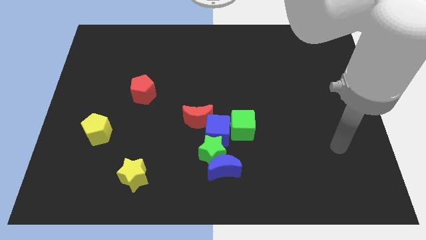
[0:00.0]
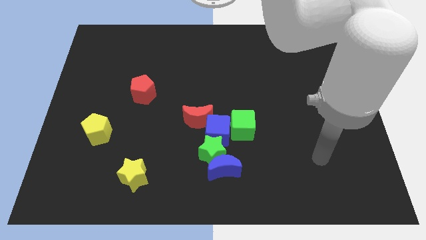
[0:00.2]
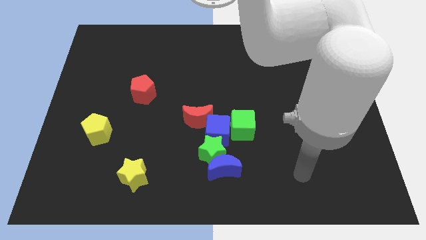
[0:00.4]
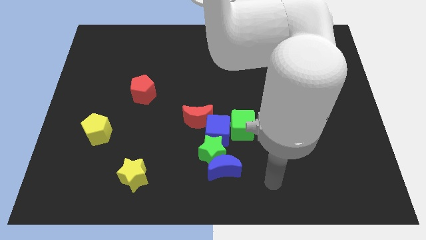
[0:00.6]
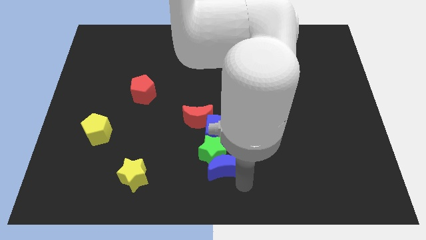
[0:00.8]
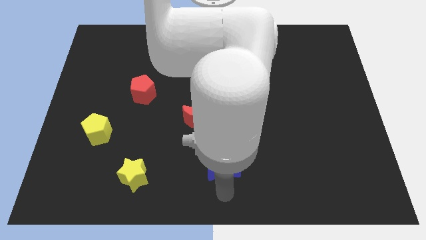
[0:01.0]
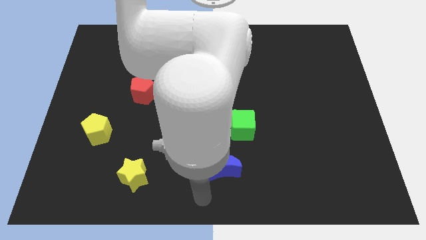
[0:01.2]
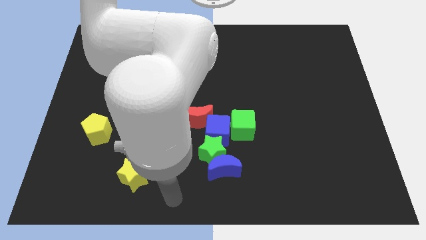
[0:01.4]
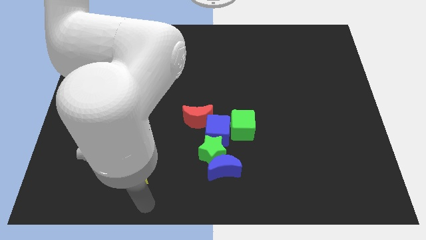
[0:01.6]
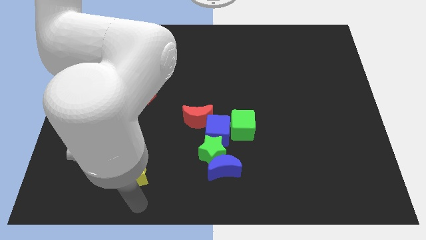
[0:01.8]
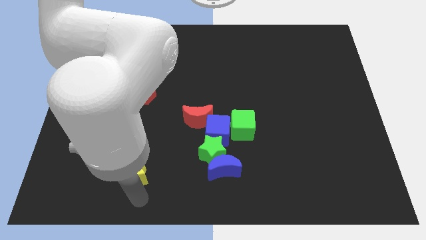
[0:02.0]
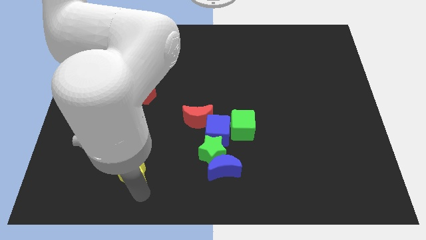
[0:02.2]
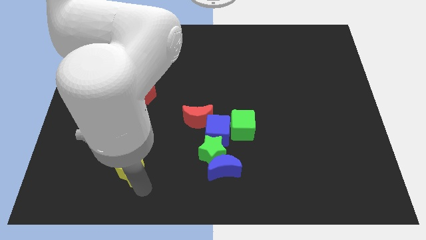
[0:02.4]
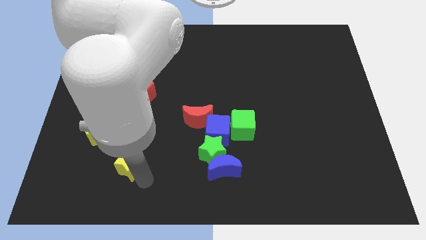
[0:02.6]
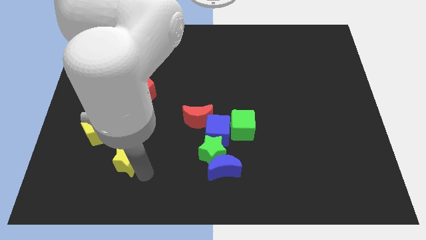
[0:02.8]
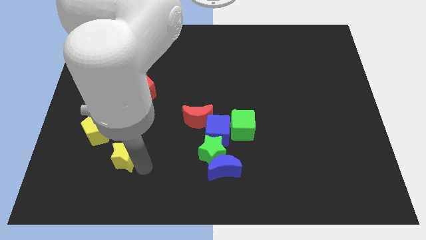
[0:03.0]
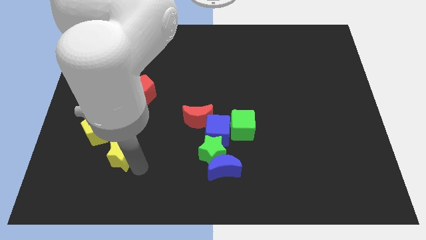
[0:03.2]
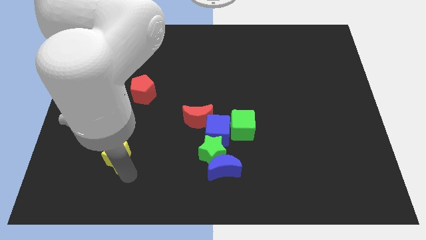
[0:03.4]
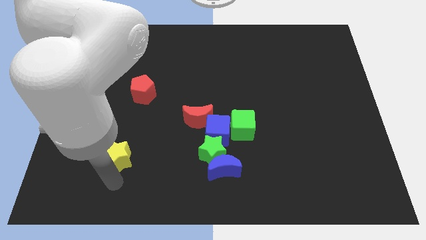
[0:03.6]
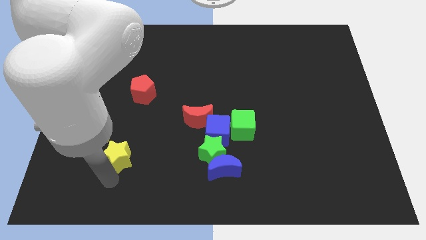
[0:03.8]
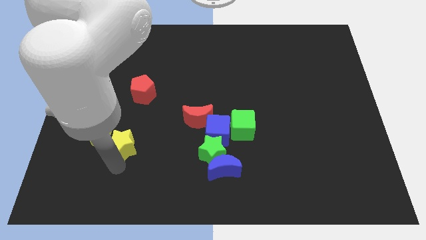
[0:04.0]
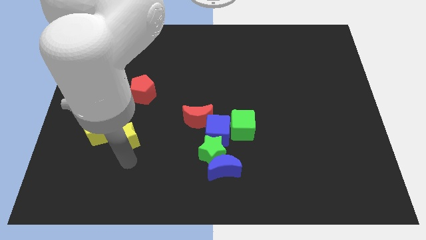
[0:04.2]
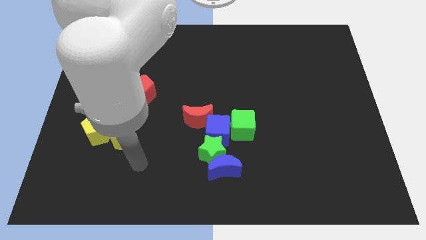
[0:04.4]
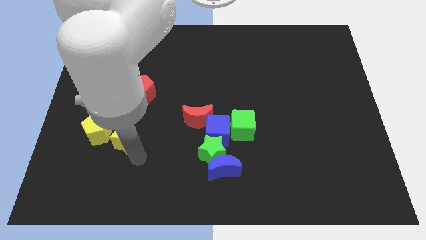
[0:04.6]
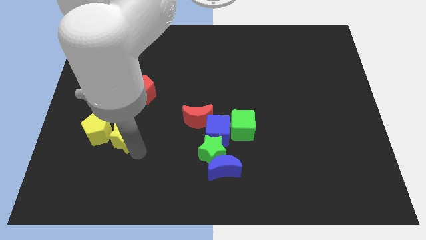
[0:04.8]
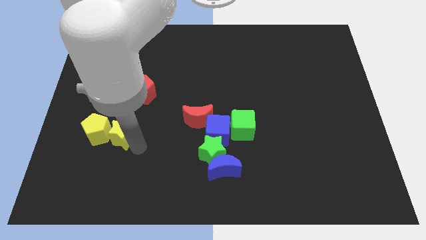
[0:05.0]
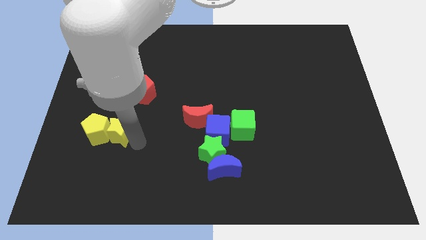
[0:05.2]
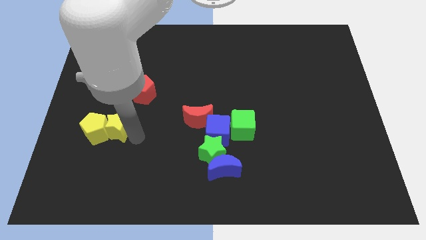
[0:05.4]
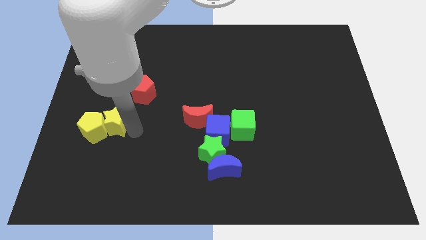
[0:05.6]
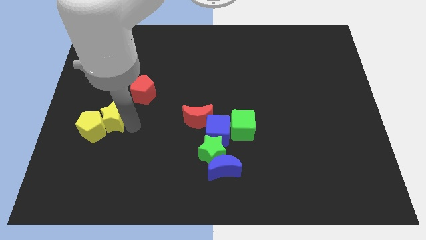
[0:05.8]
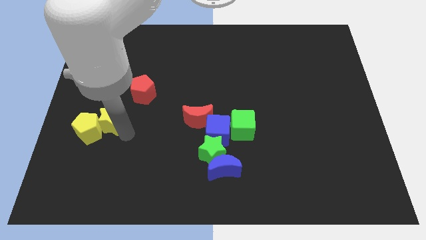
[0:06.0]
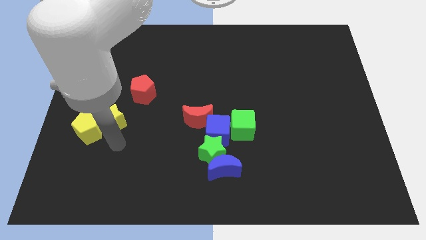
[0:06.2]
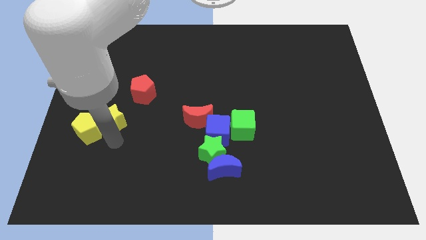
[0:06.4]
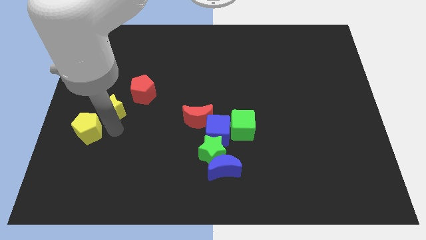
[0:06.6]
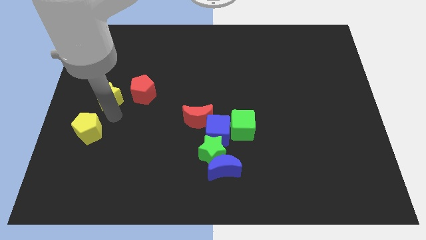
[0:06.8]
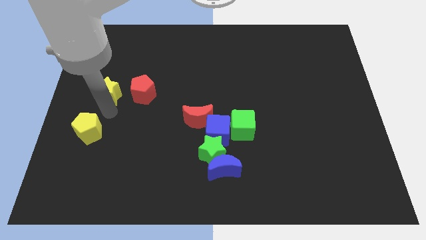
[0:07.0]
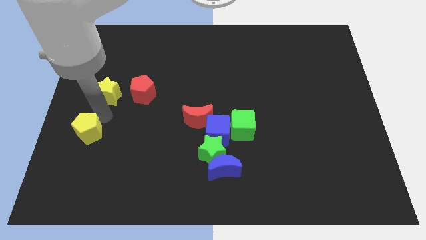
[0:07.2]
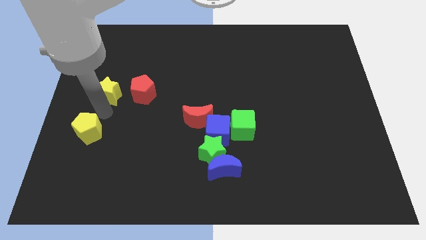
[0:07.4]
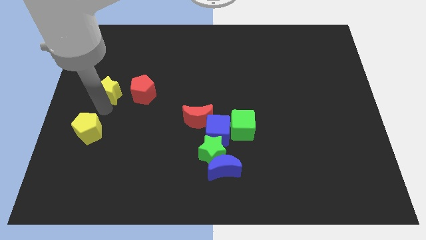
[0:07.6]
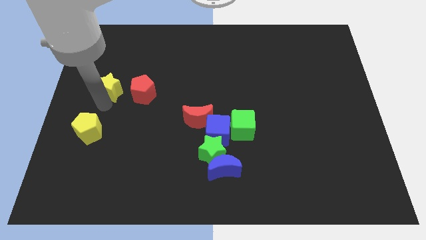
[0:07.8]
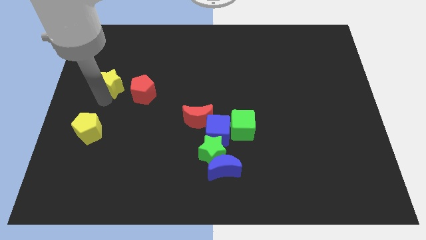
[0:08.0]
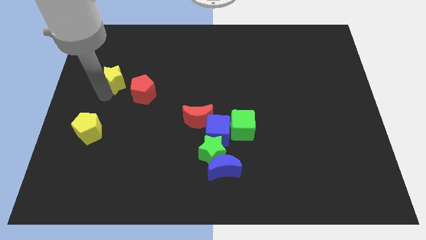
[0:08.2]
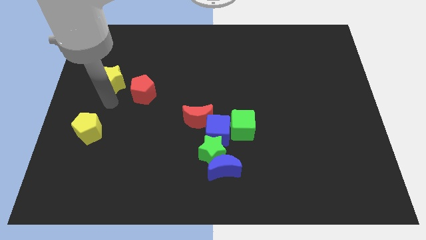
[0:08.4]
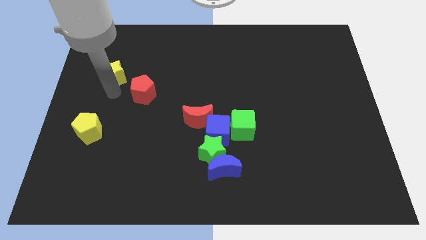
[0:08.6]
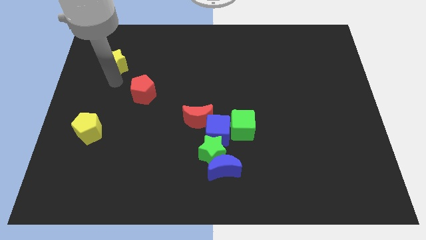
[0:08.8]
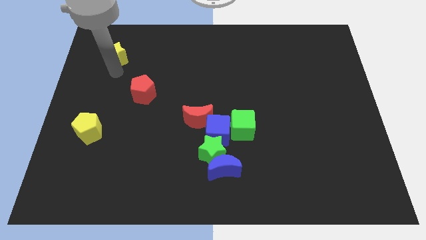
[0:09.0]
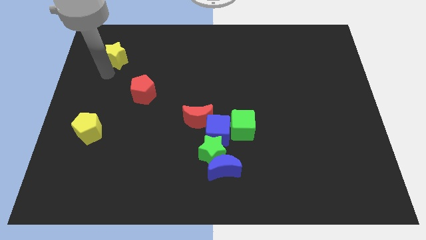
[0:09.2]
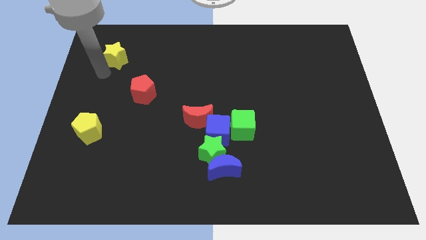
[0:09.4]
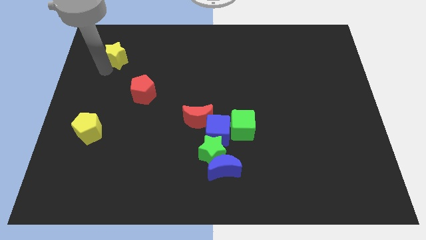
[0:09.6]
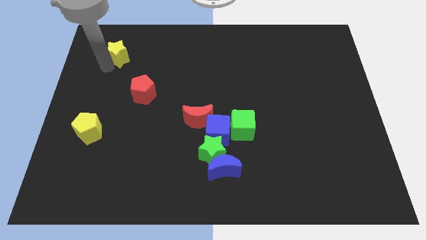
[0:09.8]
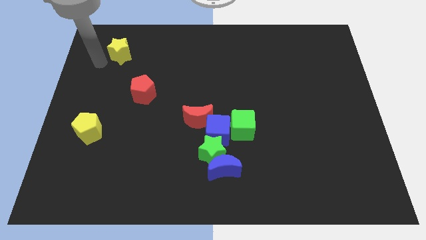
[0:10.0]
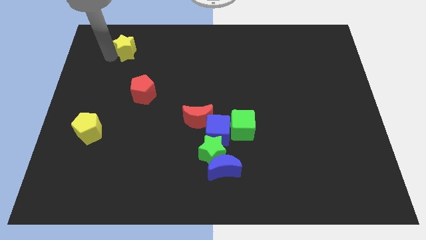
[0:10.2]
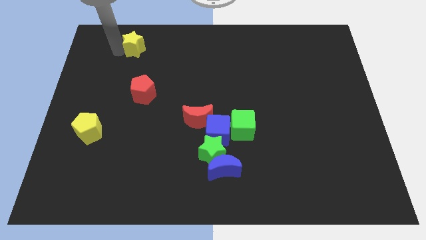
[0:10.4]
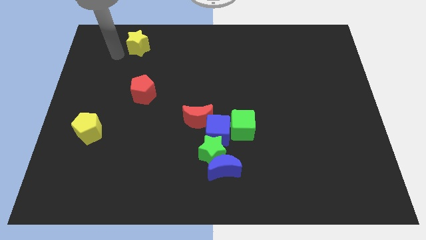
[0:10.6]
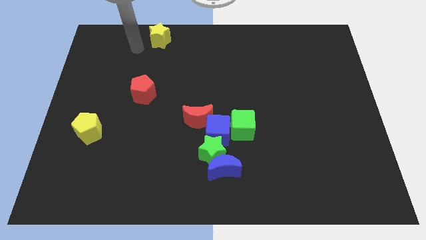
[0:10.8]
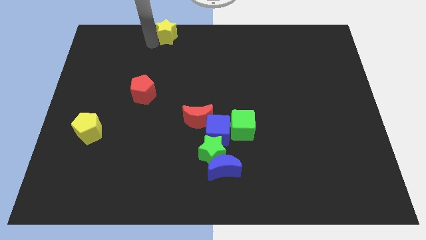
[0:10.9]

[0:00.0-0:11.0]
put the yellow star to the towards your base

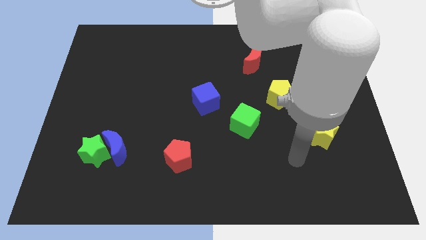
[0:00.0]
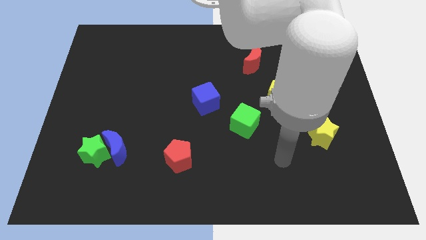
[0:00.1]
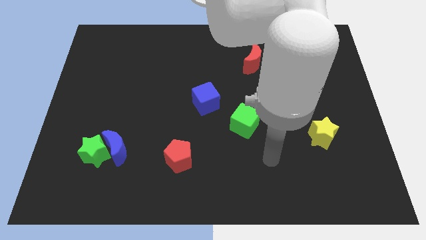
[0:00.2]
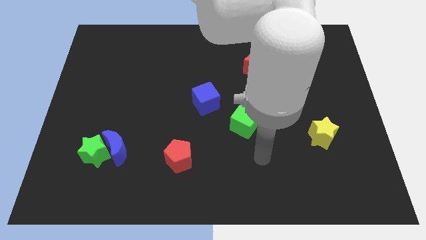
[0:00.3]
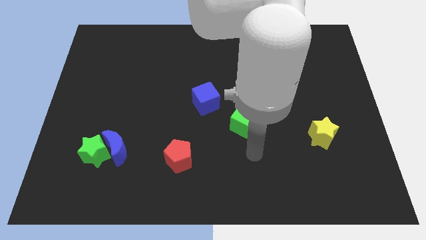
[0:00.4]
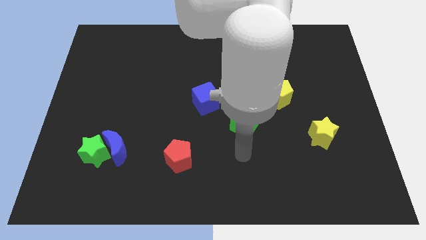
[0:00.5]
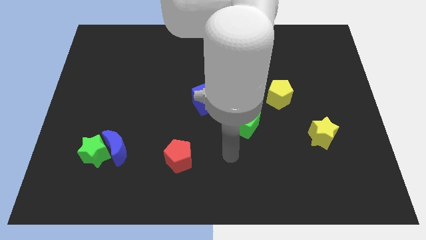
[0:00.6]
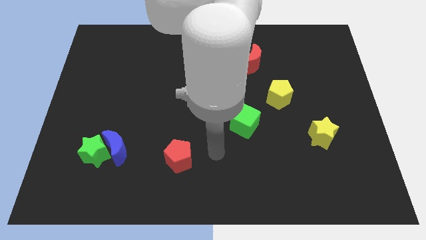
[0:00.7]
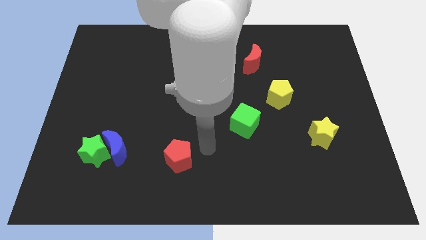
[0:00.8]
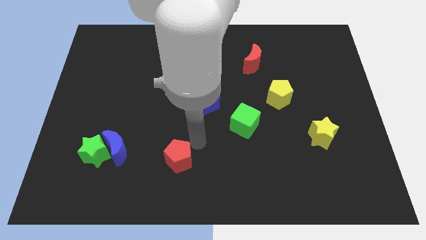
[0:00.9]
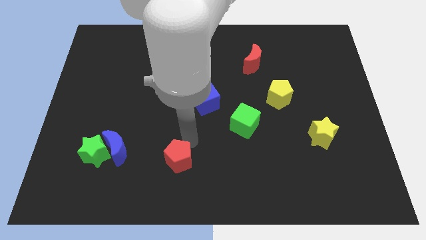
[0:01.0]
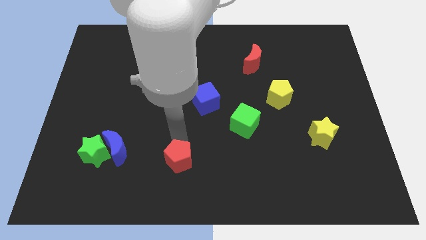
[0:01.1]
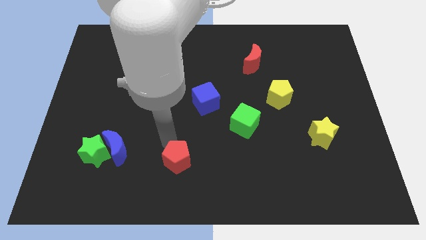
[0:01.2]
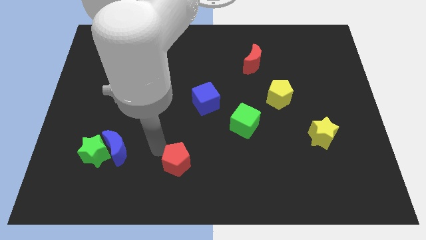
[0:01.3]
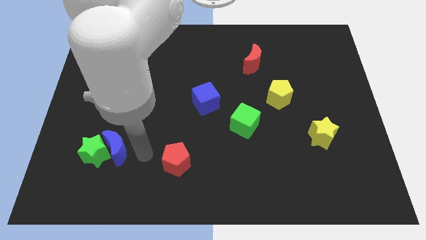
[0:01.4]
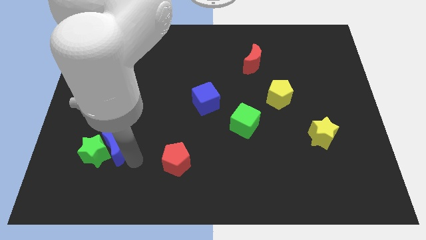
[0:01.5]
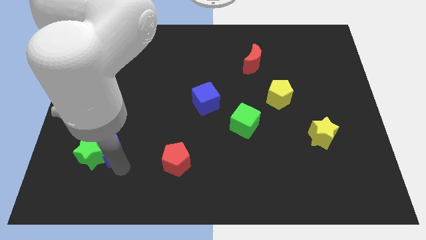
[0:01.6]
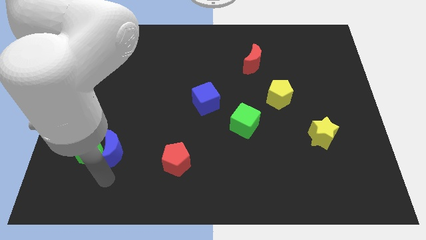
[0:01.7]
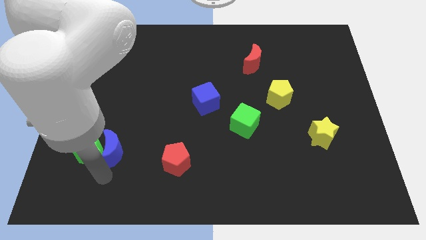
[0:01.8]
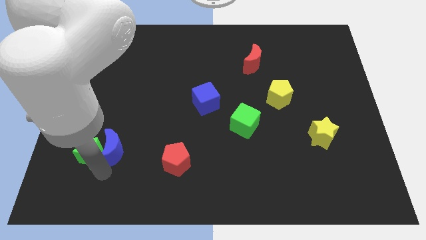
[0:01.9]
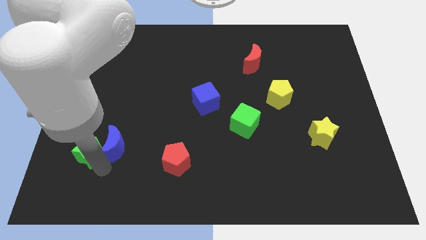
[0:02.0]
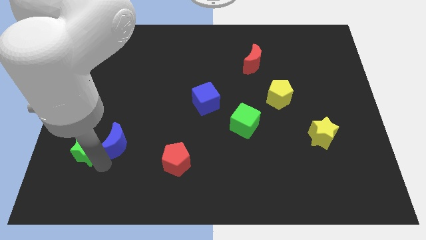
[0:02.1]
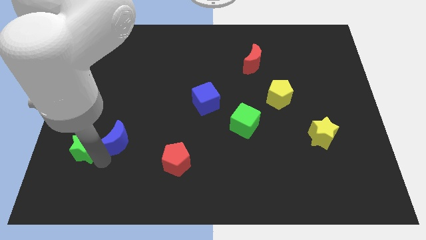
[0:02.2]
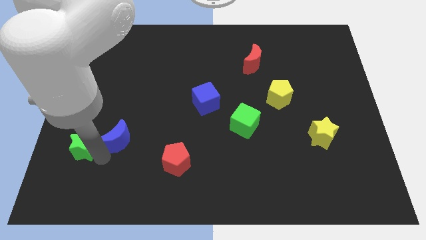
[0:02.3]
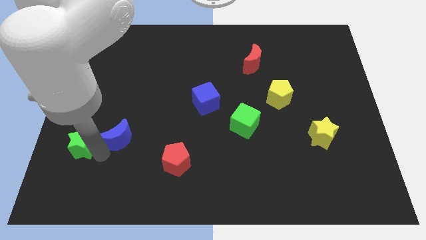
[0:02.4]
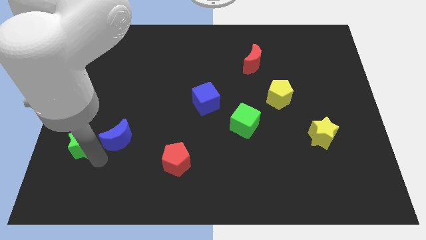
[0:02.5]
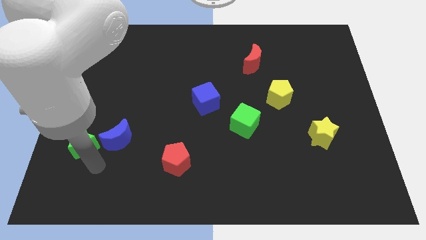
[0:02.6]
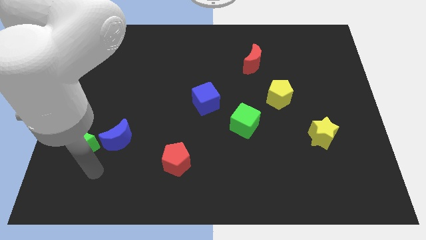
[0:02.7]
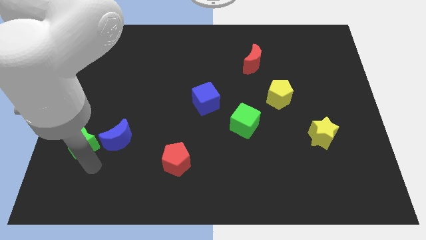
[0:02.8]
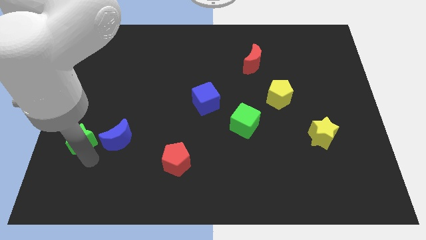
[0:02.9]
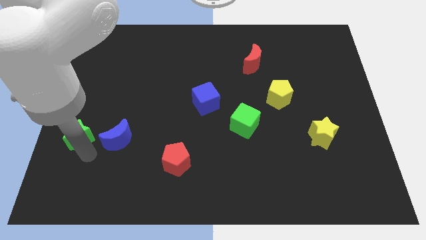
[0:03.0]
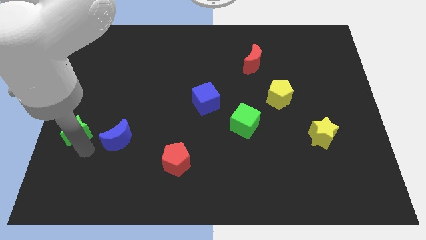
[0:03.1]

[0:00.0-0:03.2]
slide the green star to the center left
